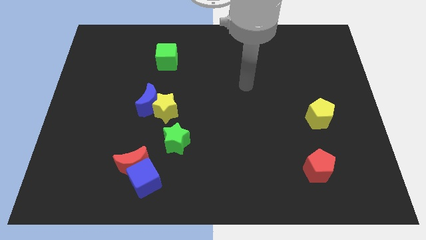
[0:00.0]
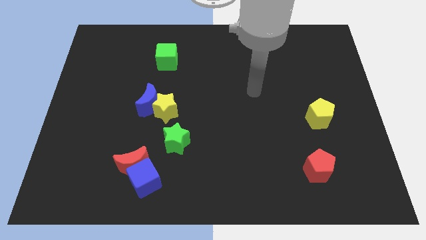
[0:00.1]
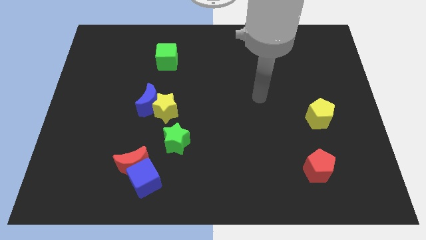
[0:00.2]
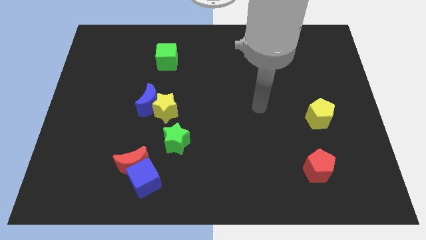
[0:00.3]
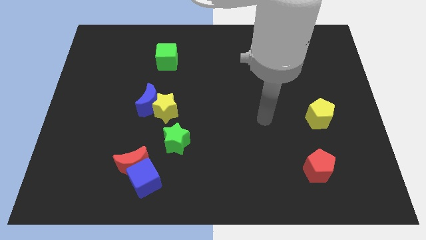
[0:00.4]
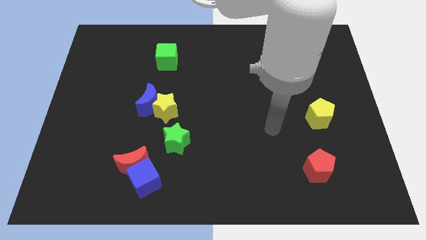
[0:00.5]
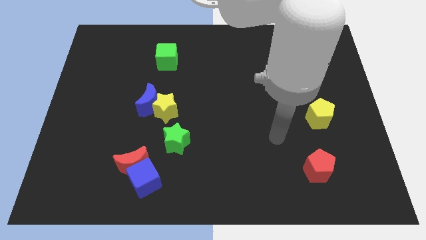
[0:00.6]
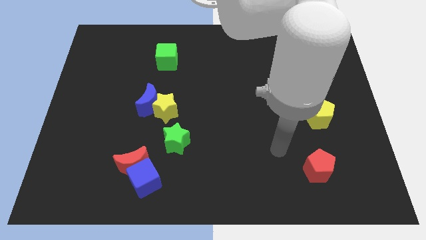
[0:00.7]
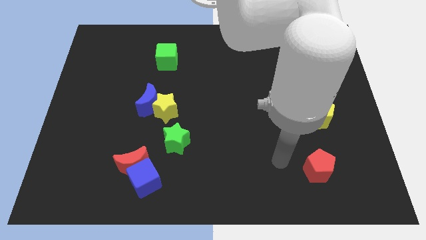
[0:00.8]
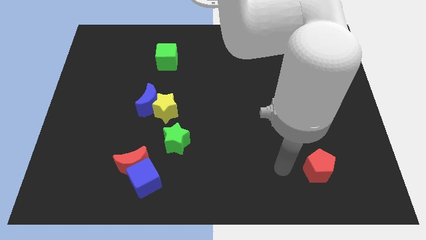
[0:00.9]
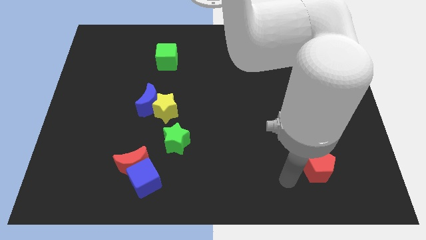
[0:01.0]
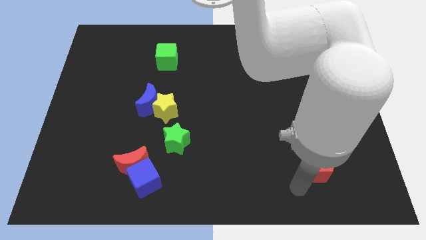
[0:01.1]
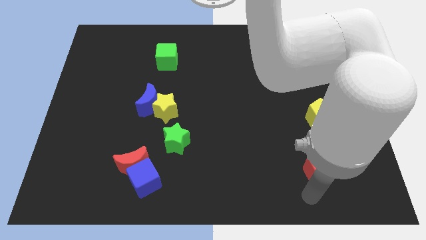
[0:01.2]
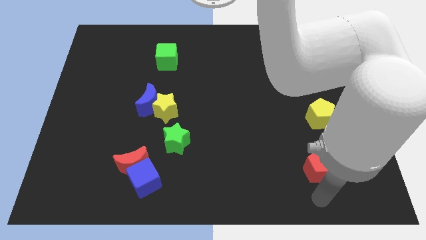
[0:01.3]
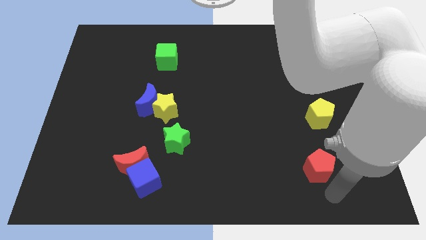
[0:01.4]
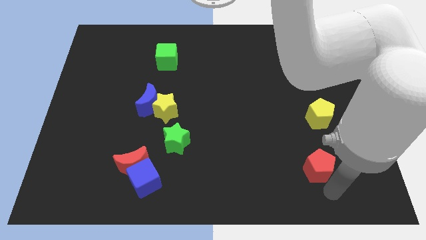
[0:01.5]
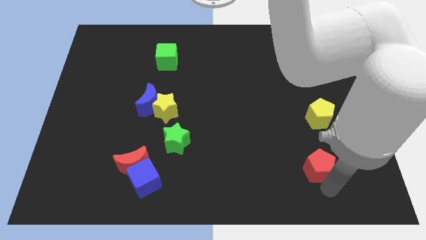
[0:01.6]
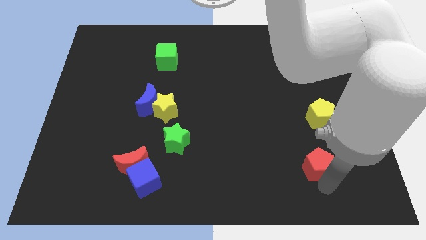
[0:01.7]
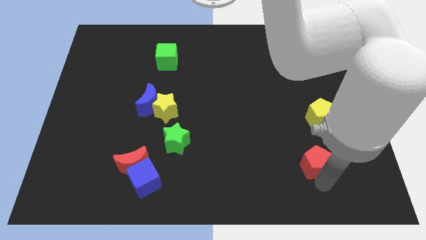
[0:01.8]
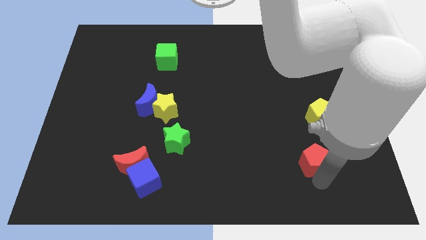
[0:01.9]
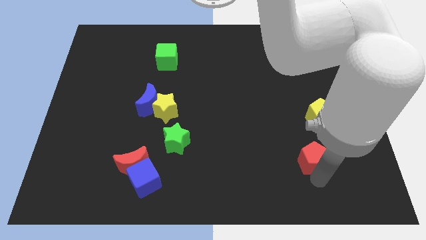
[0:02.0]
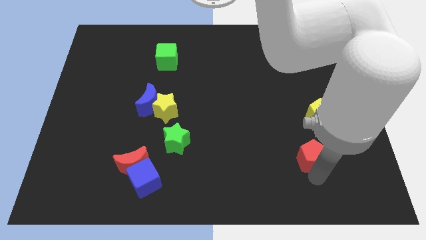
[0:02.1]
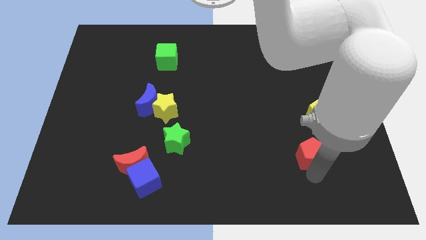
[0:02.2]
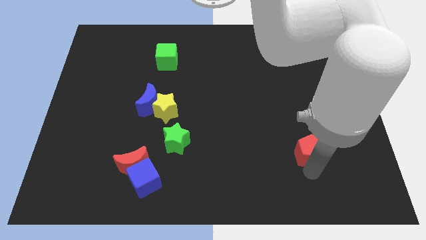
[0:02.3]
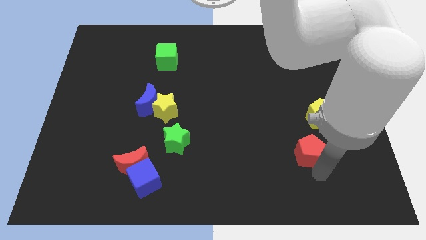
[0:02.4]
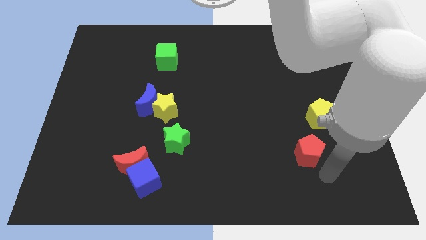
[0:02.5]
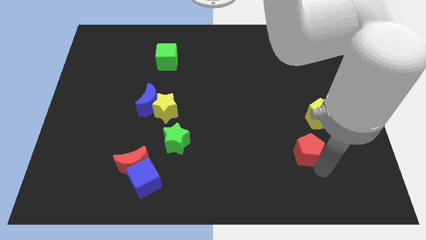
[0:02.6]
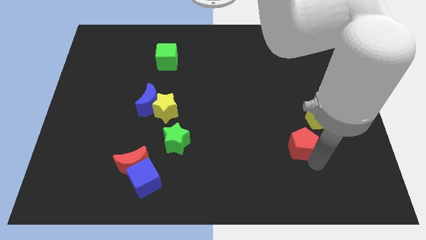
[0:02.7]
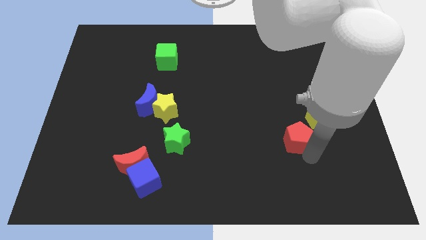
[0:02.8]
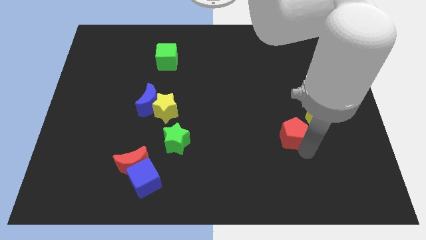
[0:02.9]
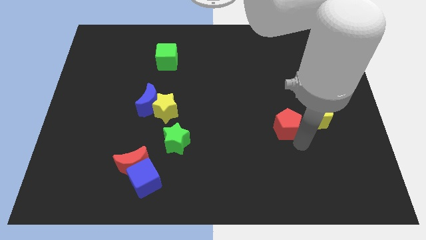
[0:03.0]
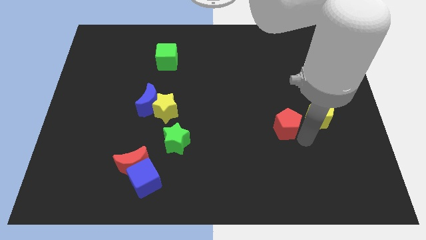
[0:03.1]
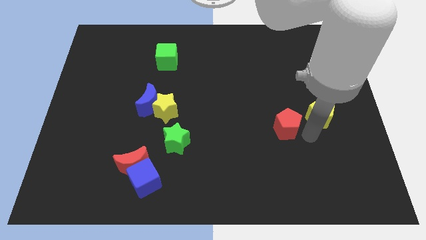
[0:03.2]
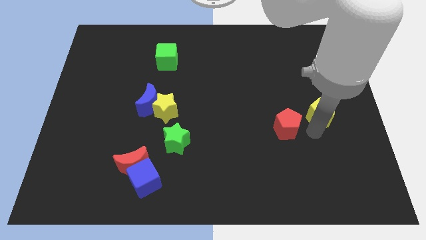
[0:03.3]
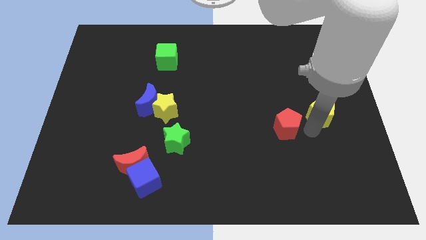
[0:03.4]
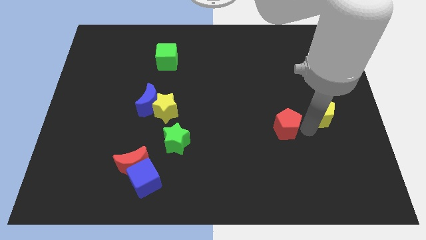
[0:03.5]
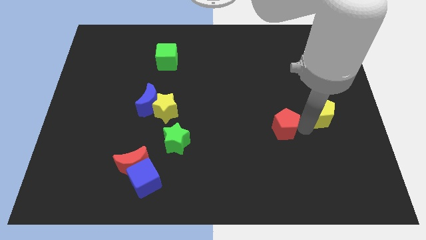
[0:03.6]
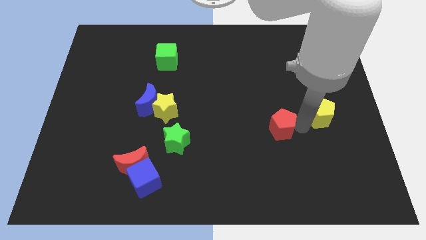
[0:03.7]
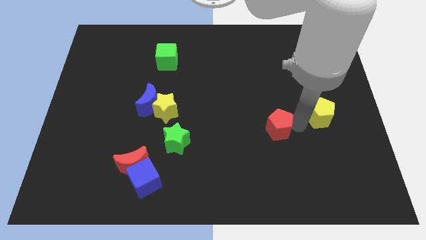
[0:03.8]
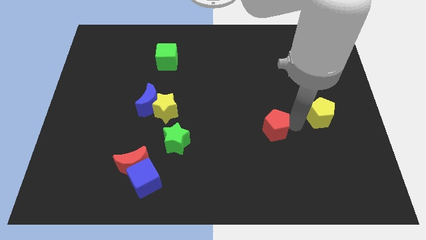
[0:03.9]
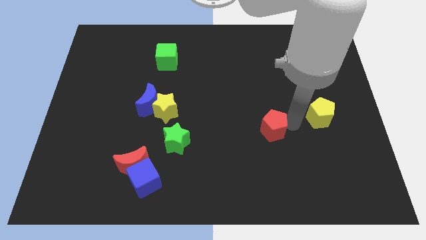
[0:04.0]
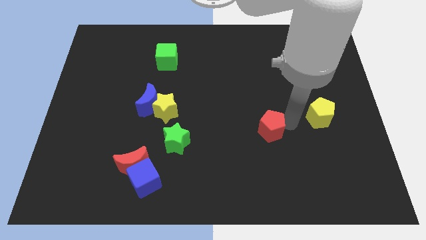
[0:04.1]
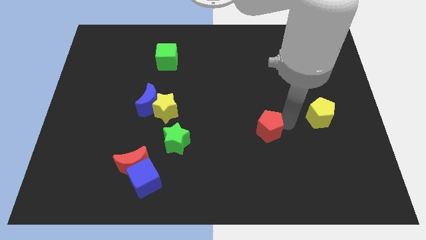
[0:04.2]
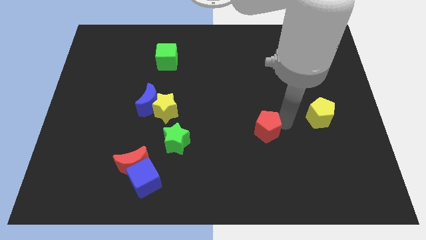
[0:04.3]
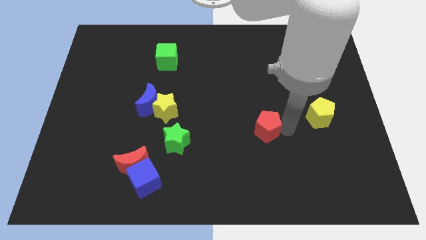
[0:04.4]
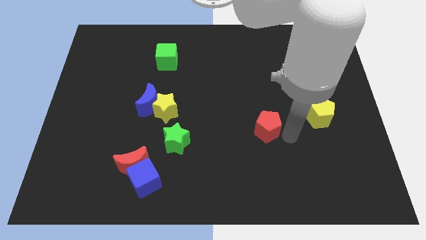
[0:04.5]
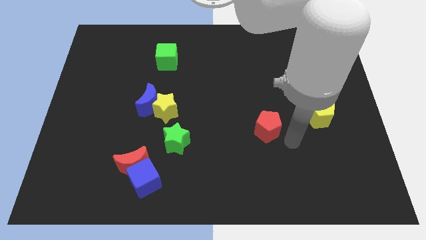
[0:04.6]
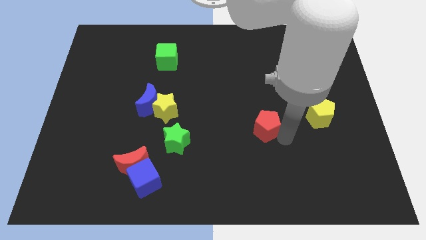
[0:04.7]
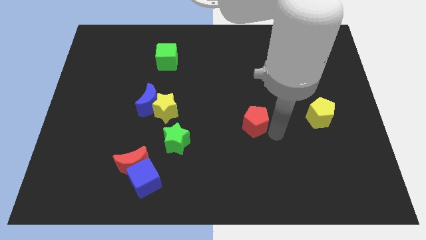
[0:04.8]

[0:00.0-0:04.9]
move the red pentagon to the center of the board
